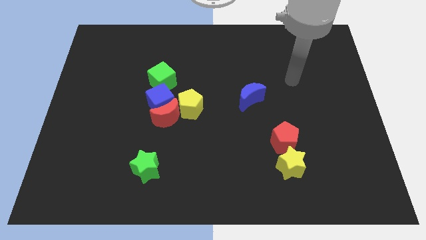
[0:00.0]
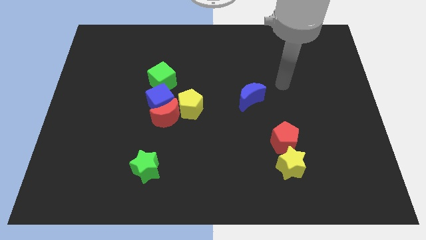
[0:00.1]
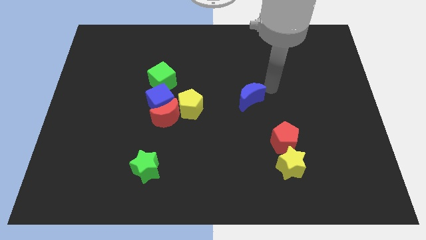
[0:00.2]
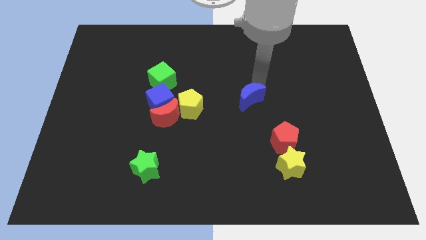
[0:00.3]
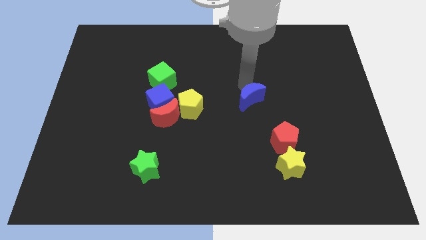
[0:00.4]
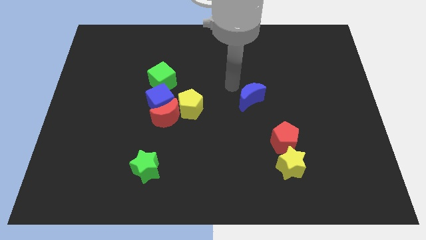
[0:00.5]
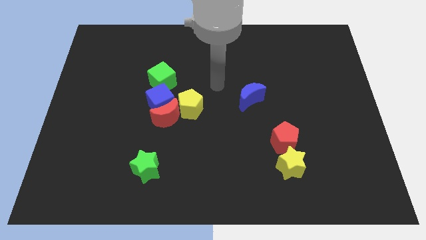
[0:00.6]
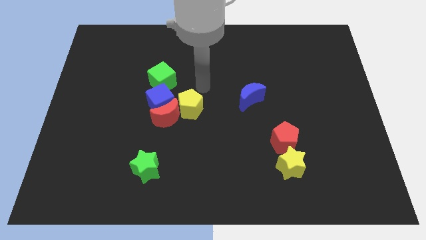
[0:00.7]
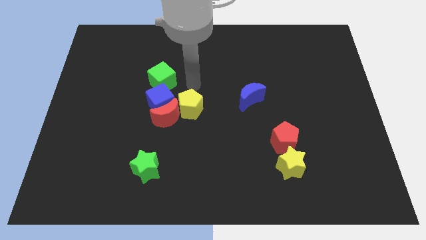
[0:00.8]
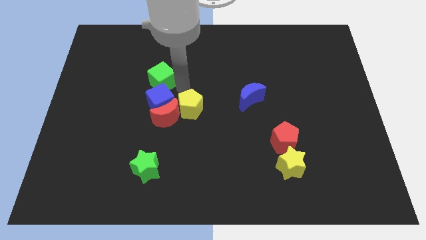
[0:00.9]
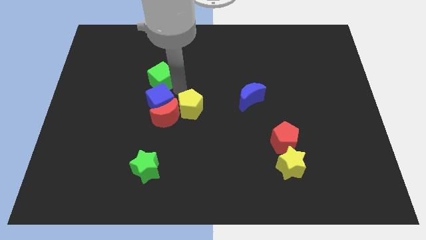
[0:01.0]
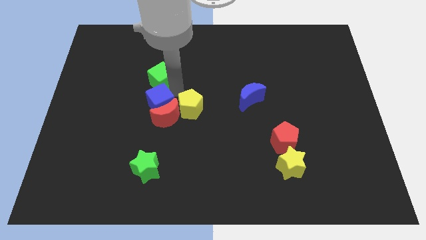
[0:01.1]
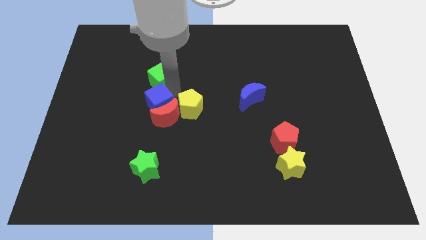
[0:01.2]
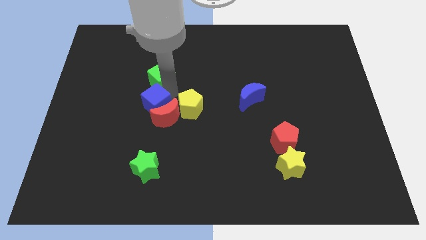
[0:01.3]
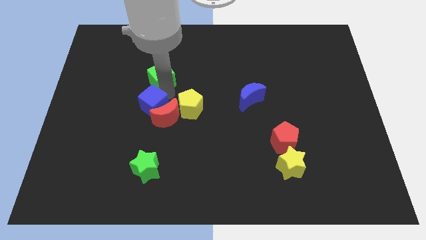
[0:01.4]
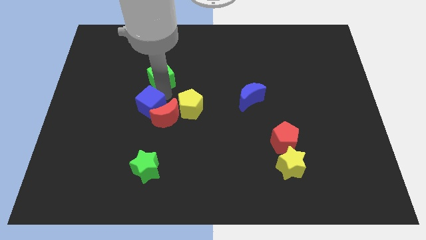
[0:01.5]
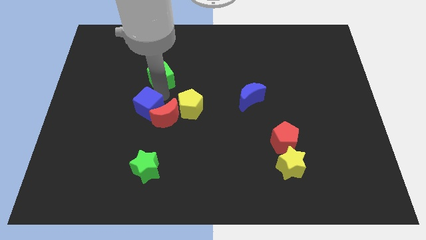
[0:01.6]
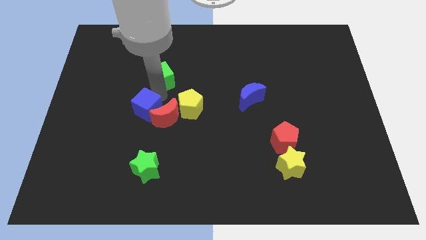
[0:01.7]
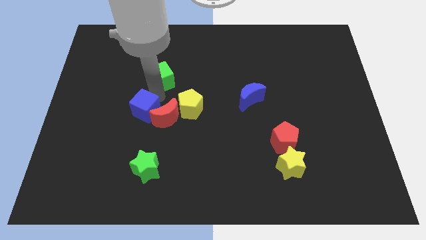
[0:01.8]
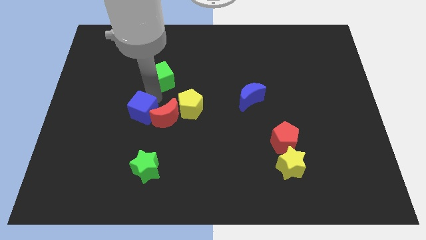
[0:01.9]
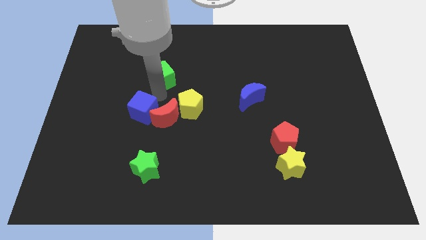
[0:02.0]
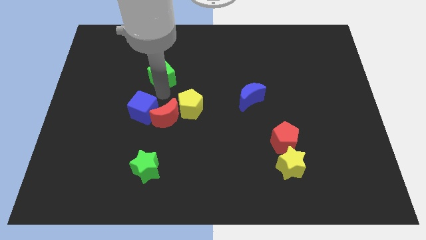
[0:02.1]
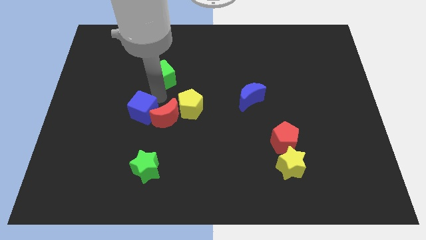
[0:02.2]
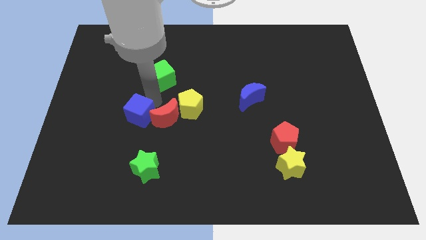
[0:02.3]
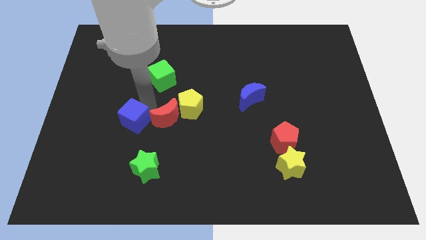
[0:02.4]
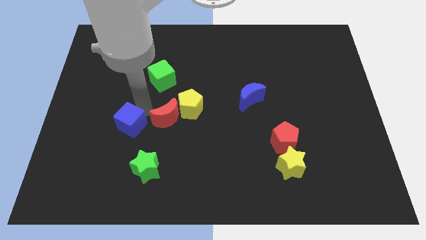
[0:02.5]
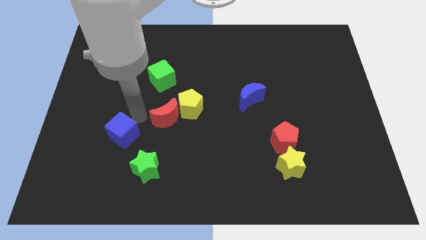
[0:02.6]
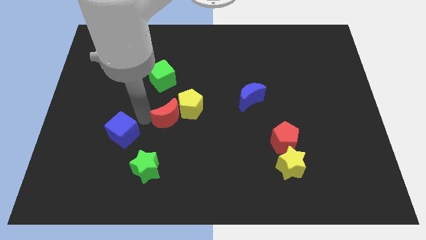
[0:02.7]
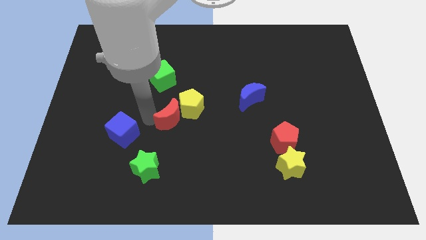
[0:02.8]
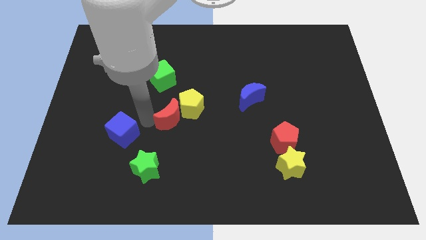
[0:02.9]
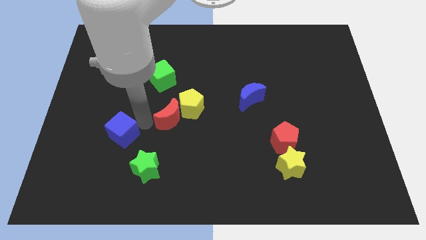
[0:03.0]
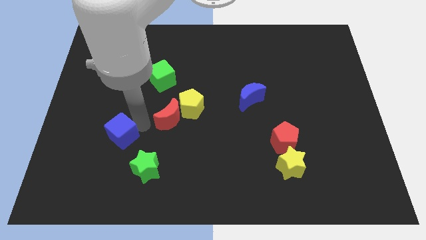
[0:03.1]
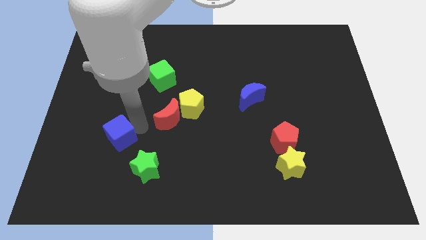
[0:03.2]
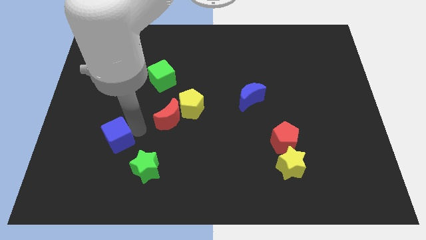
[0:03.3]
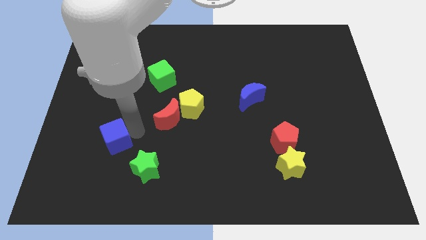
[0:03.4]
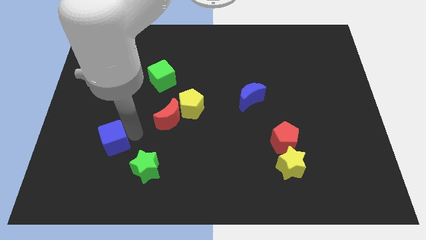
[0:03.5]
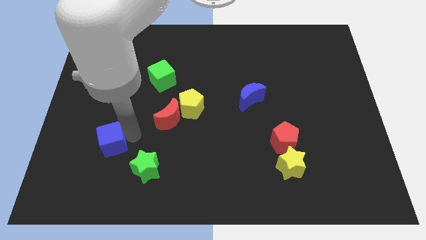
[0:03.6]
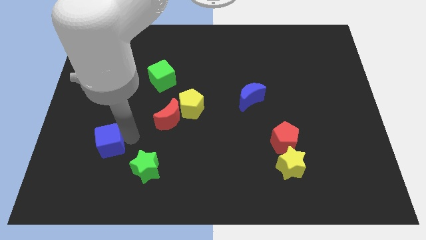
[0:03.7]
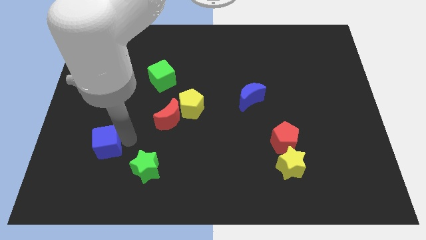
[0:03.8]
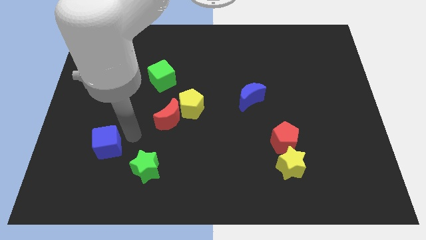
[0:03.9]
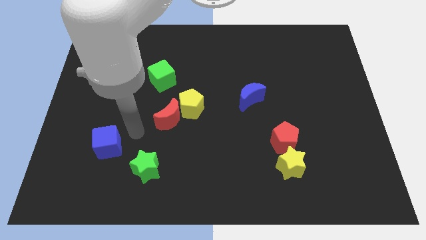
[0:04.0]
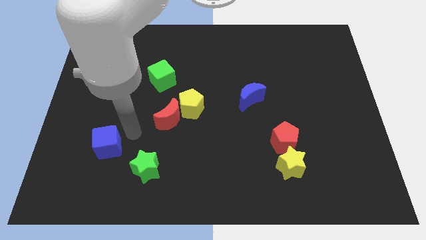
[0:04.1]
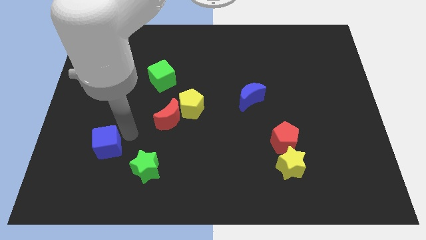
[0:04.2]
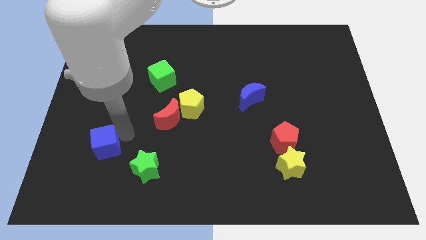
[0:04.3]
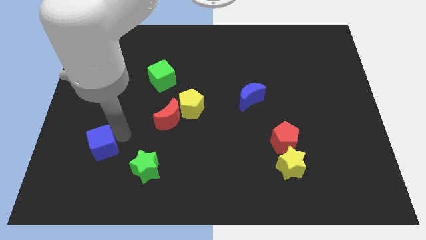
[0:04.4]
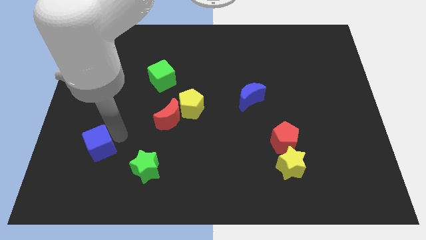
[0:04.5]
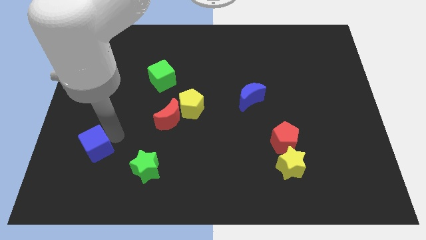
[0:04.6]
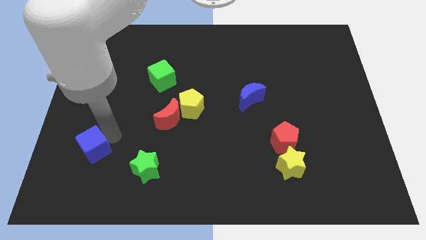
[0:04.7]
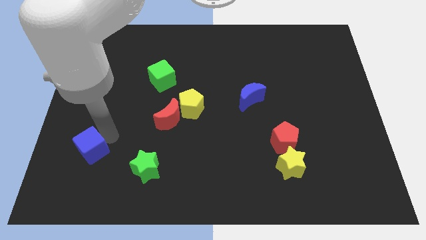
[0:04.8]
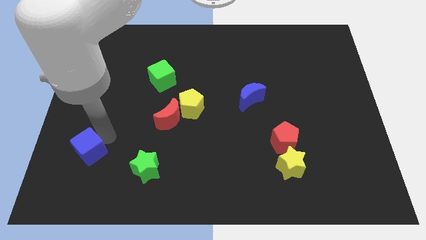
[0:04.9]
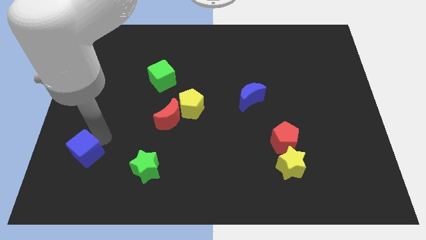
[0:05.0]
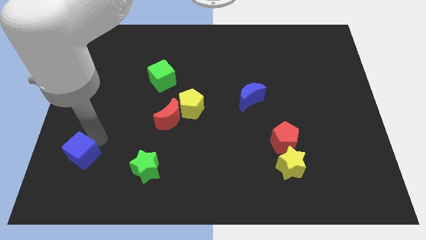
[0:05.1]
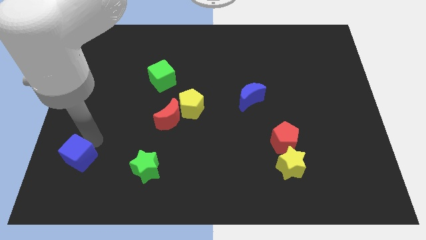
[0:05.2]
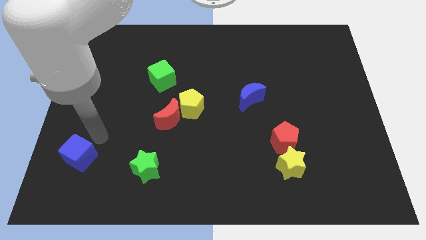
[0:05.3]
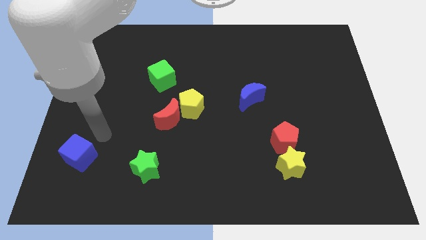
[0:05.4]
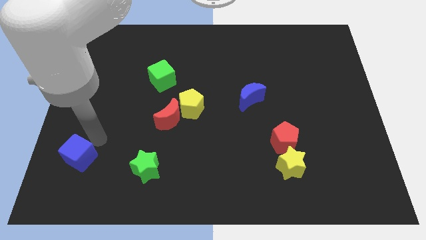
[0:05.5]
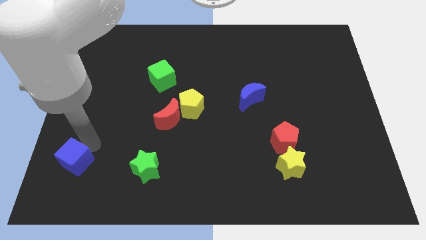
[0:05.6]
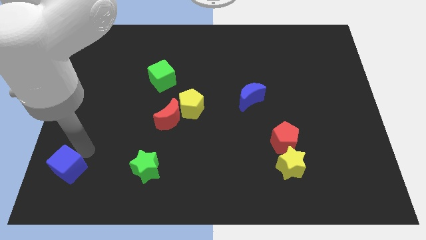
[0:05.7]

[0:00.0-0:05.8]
move the blue cube to the bottom left
